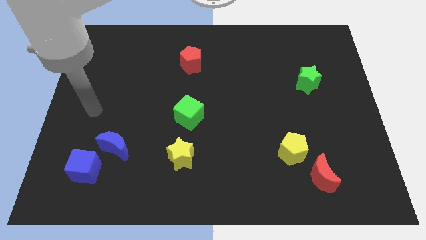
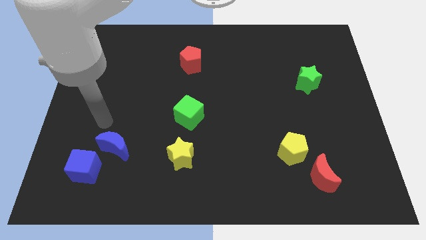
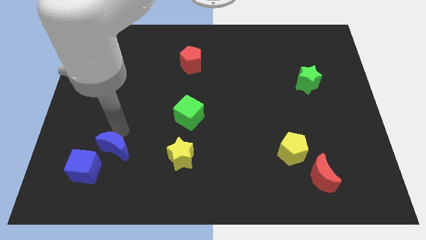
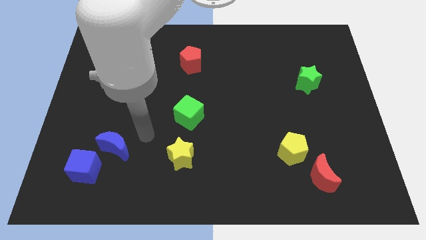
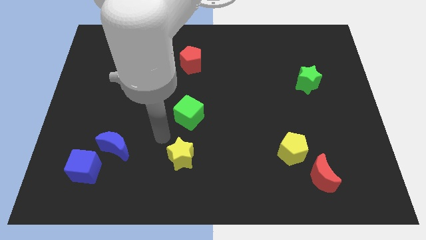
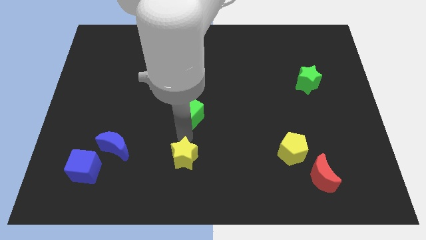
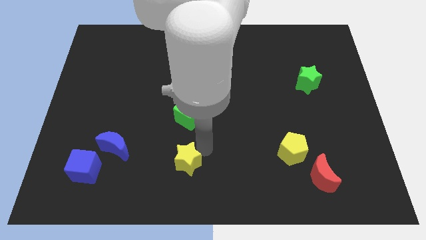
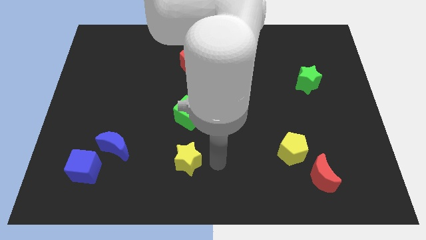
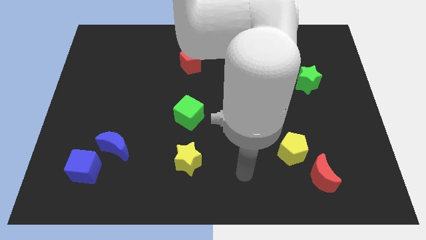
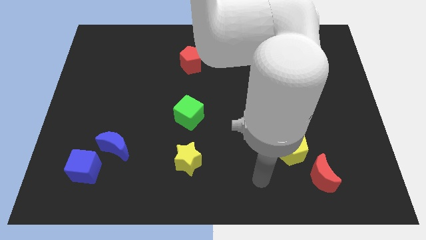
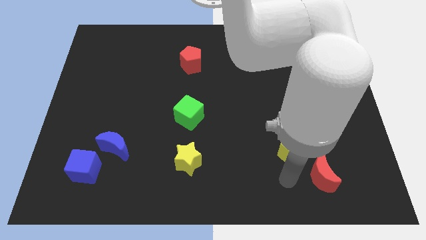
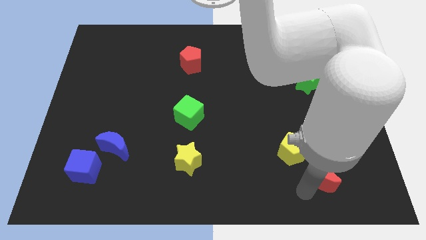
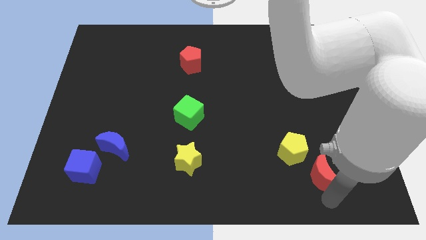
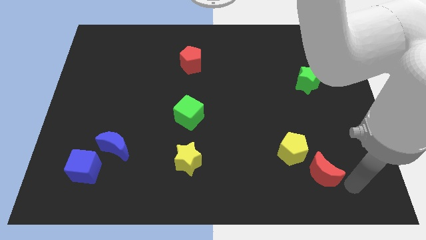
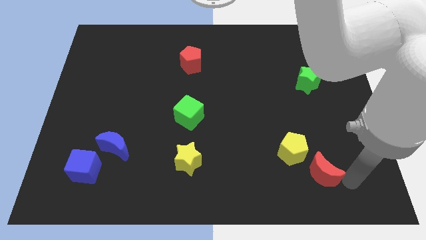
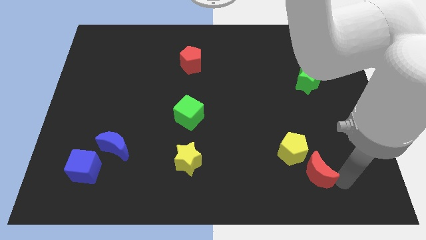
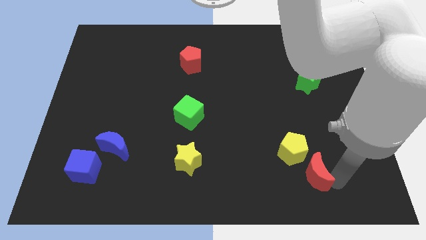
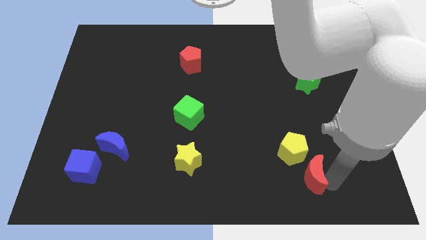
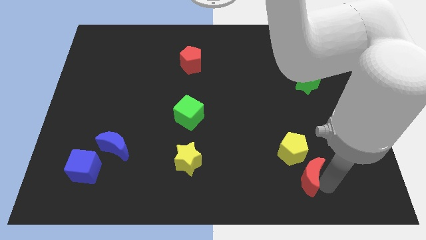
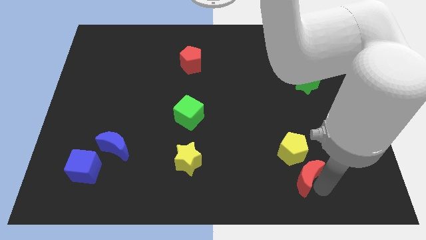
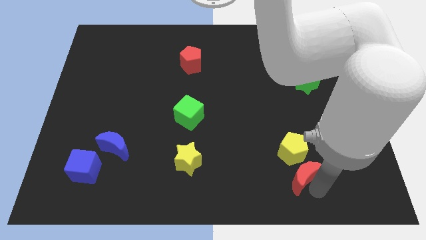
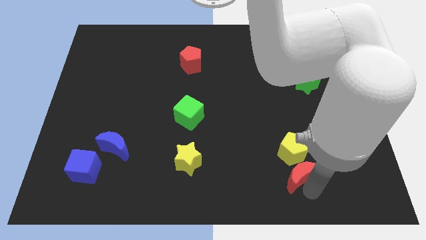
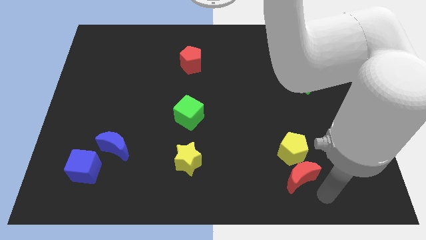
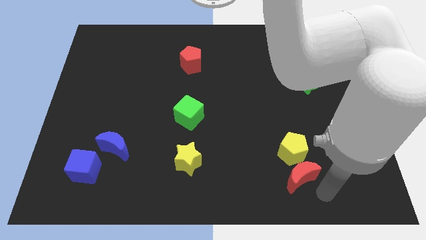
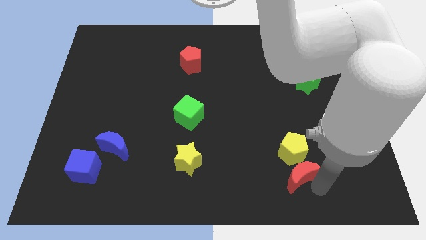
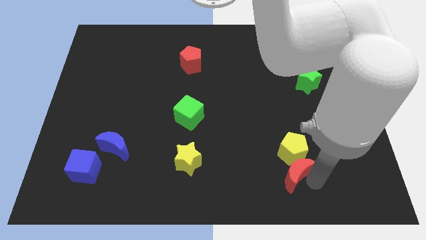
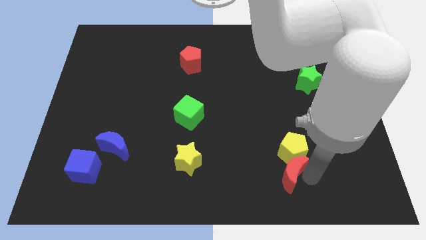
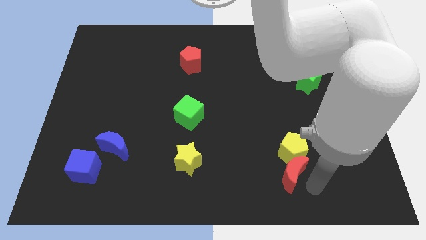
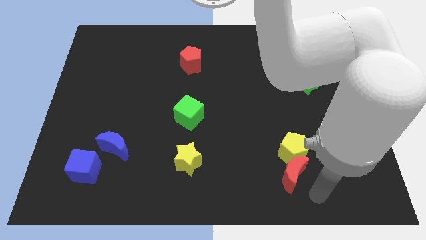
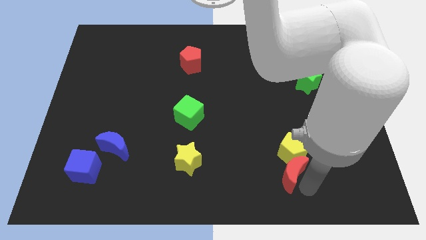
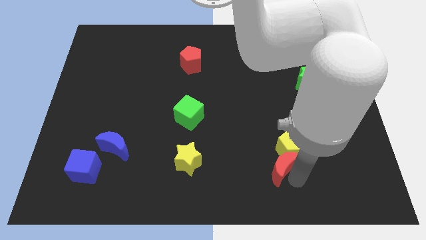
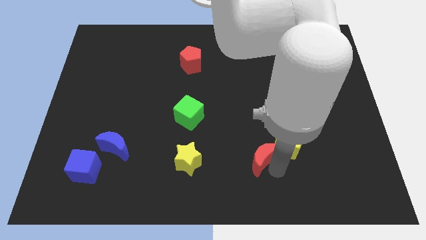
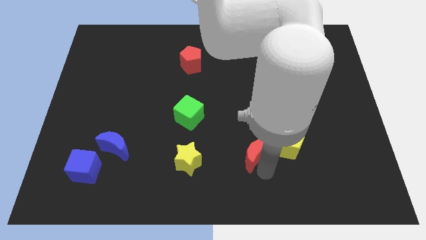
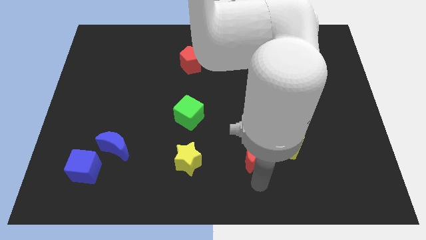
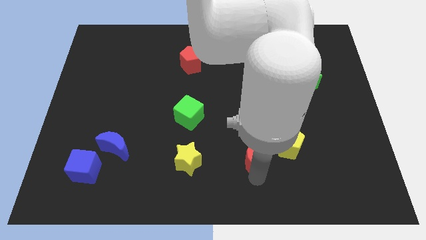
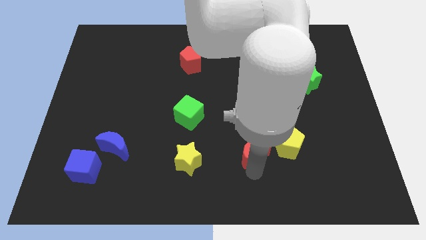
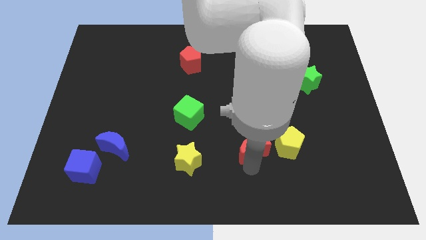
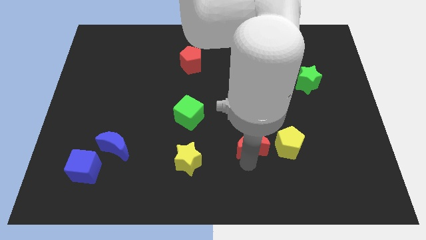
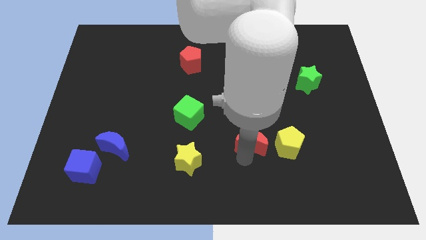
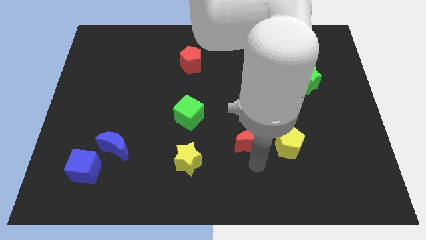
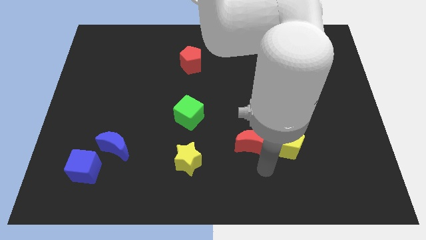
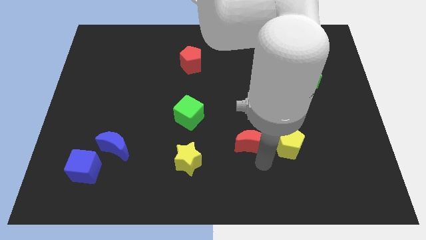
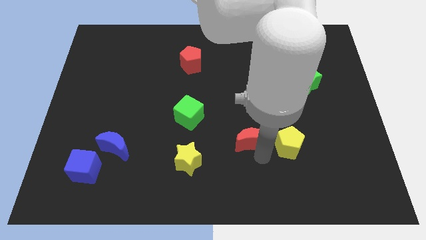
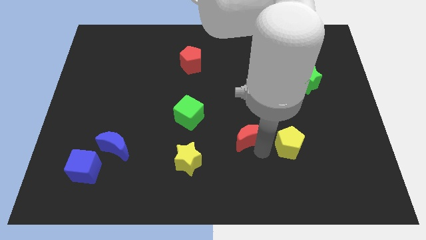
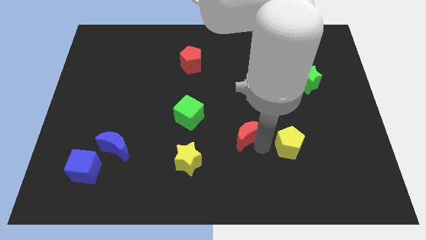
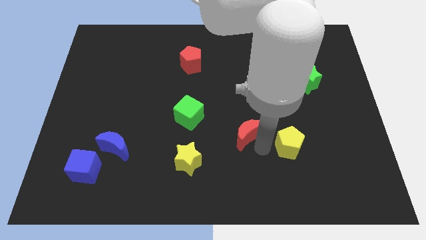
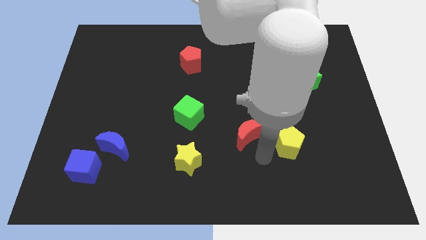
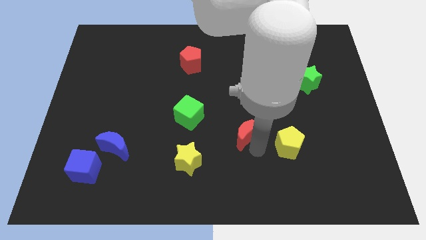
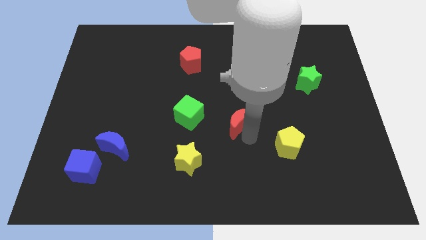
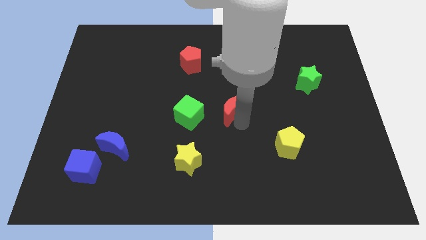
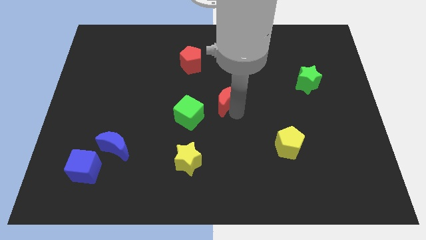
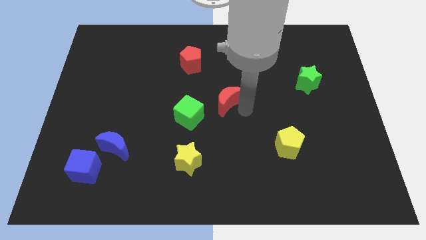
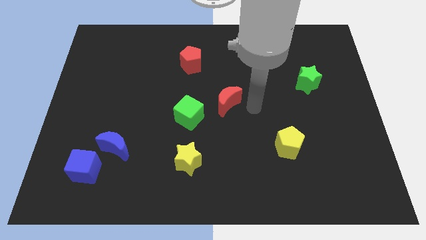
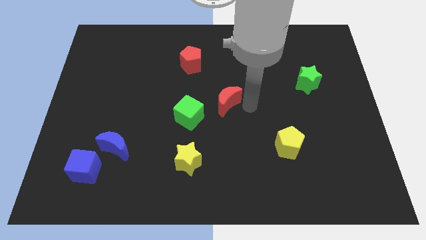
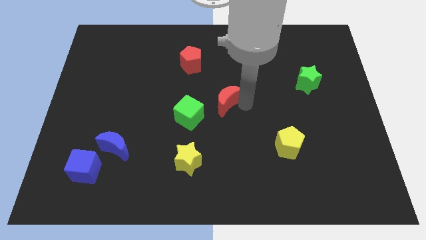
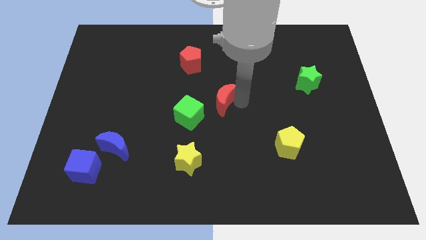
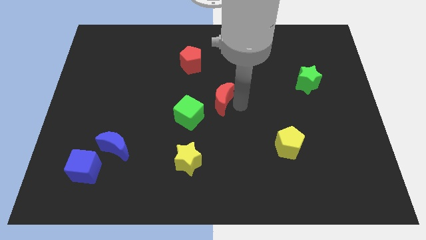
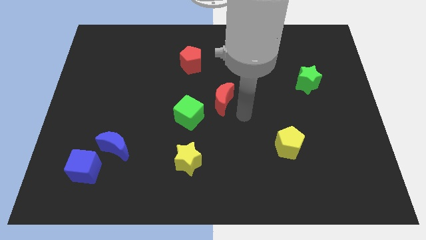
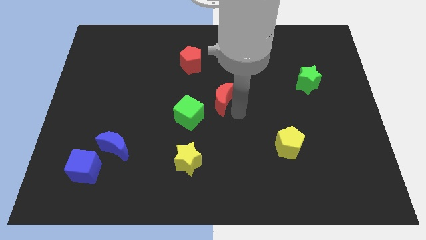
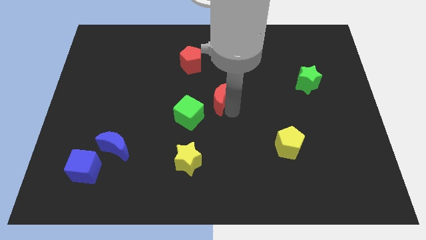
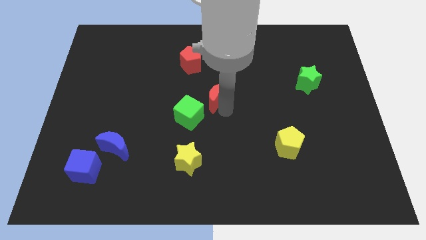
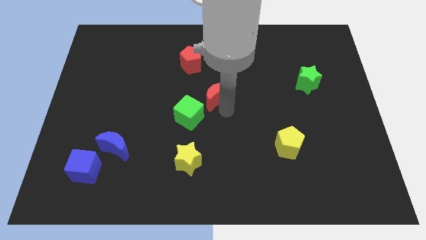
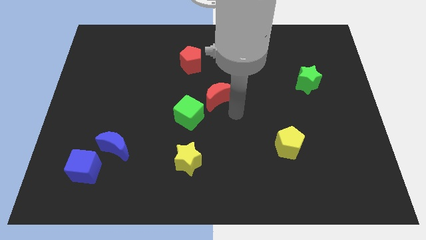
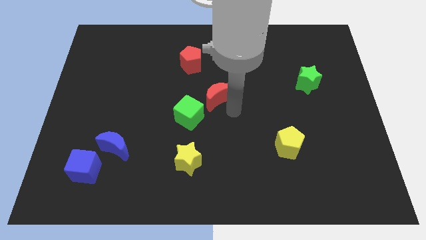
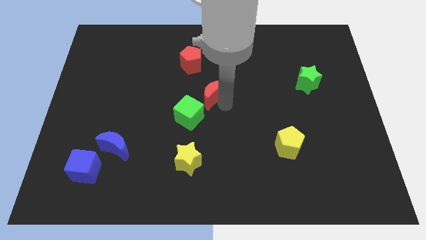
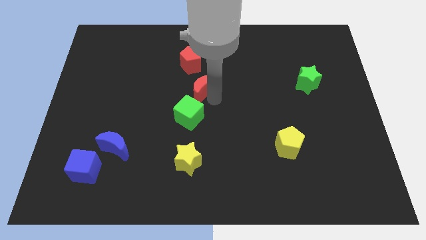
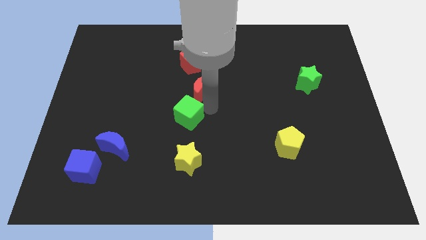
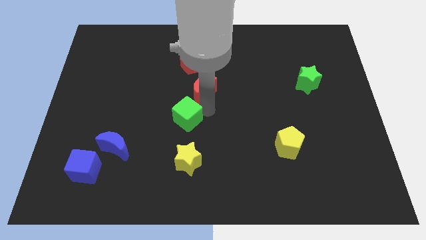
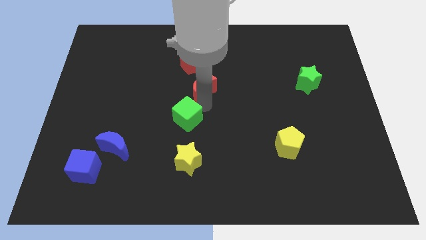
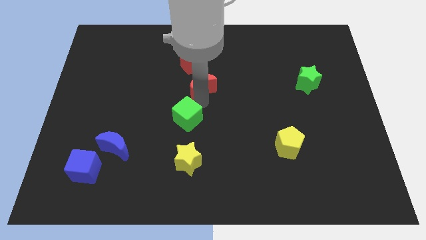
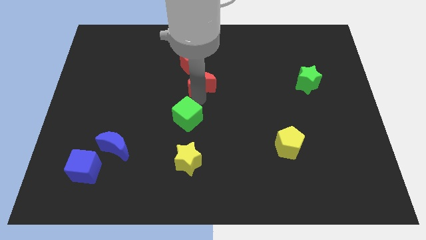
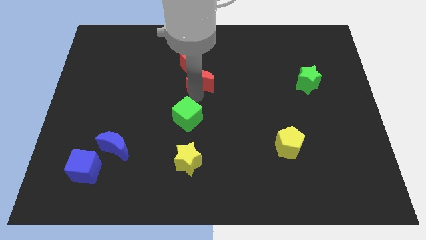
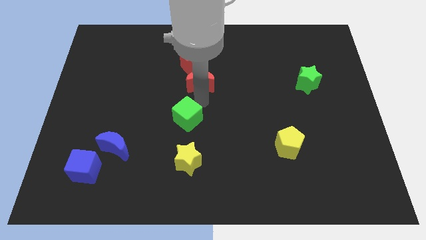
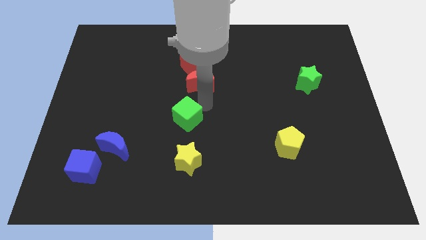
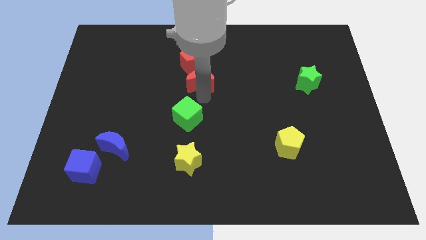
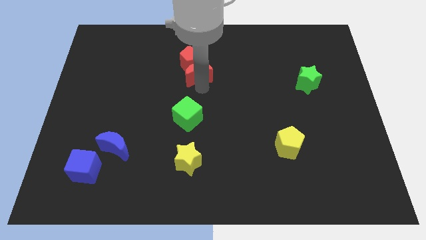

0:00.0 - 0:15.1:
push the red moon towards the red pentagon
